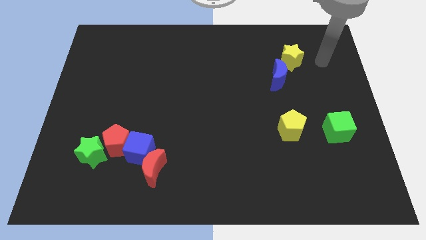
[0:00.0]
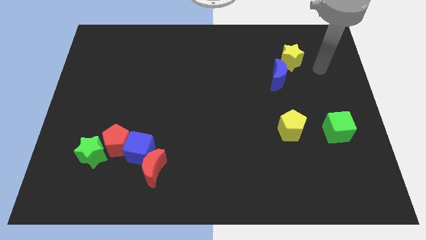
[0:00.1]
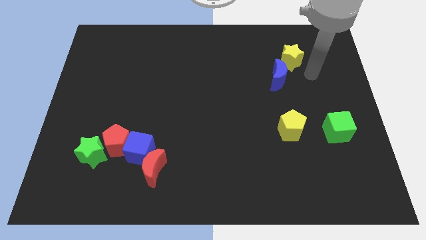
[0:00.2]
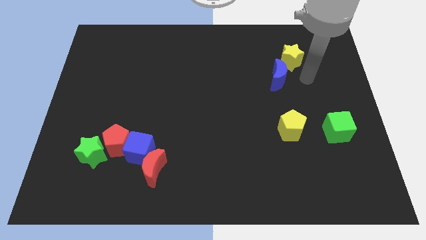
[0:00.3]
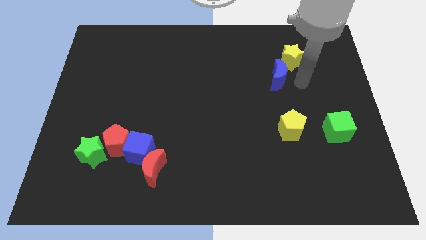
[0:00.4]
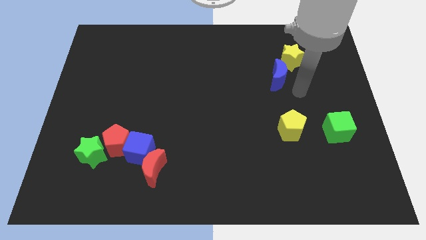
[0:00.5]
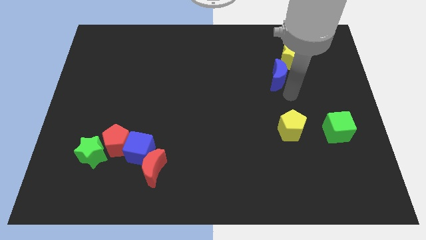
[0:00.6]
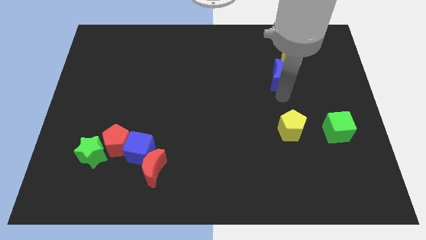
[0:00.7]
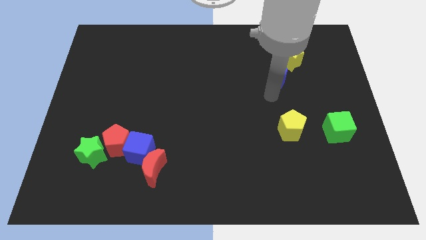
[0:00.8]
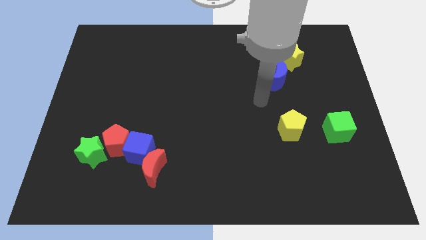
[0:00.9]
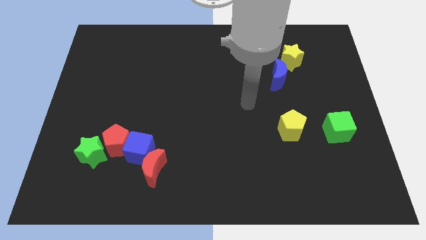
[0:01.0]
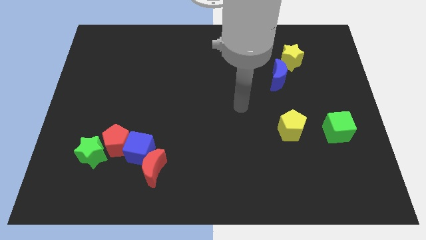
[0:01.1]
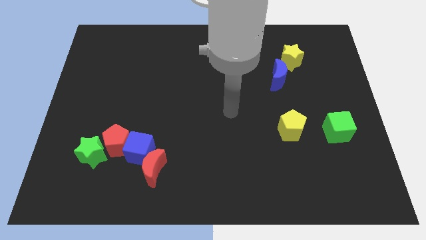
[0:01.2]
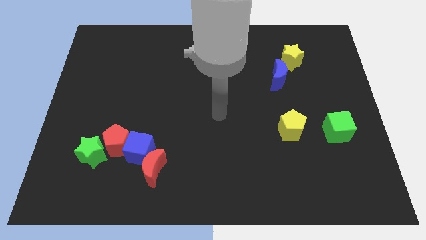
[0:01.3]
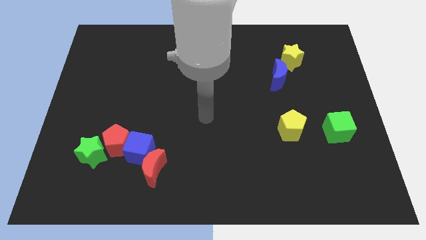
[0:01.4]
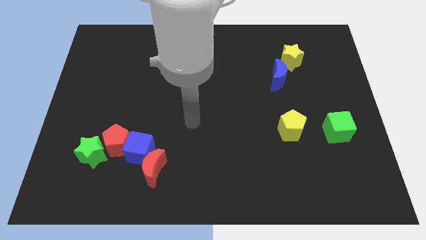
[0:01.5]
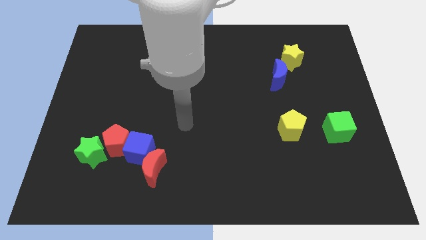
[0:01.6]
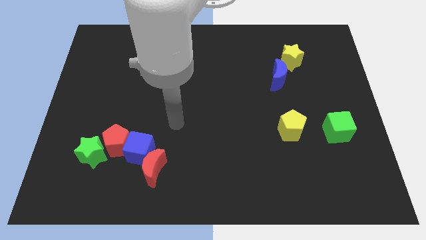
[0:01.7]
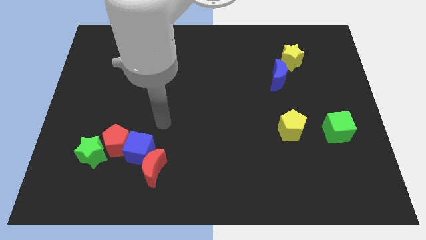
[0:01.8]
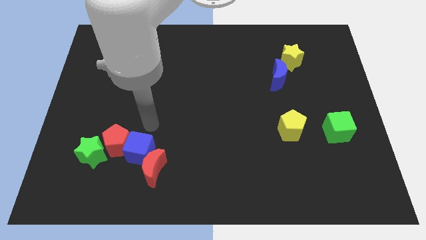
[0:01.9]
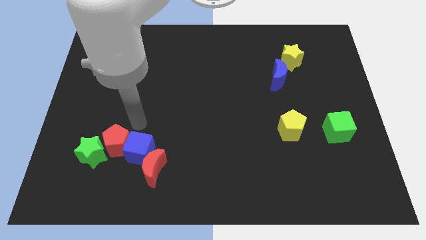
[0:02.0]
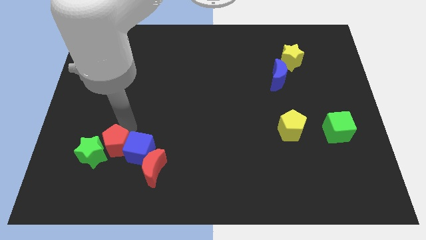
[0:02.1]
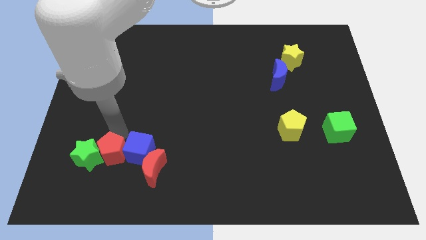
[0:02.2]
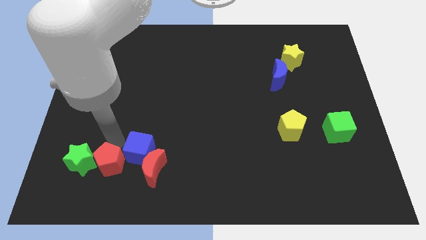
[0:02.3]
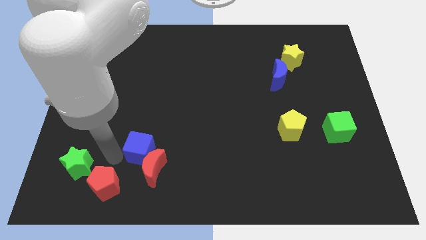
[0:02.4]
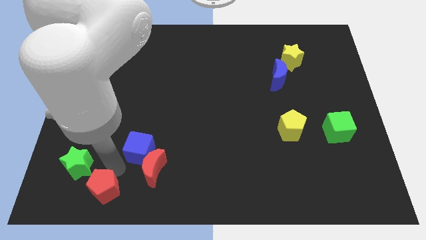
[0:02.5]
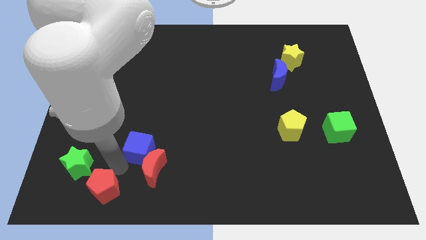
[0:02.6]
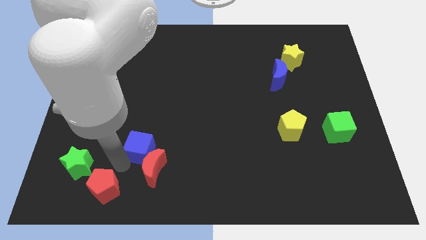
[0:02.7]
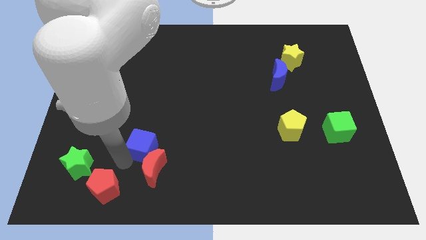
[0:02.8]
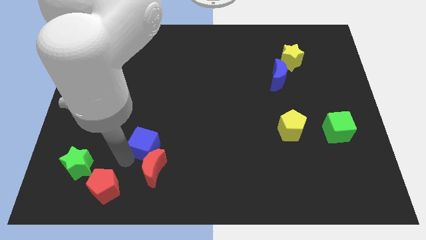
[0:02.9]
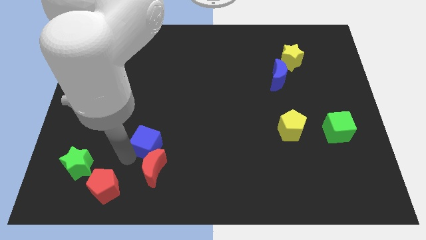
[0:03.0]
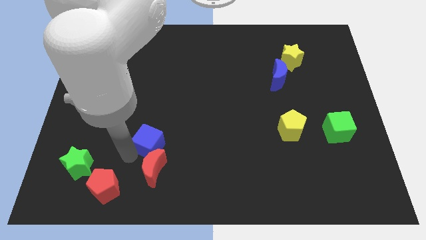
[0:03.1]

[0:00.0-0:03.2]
pull the blue cube apart from the red pentagon, red moon, and green star

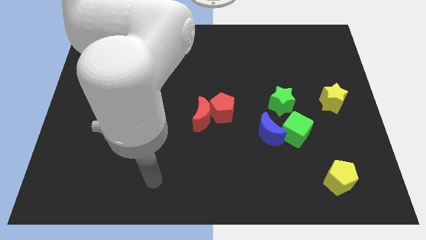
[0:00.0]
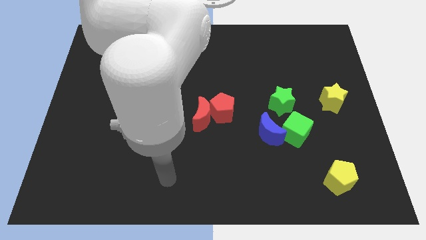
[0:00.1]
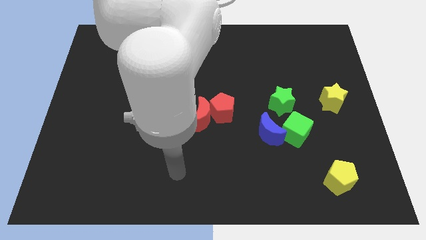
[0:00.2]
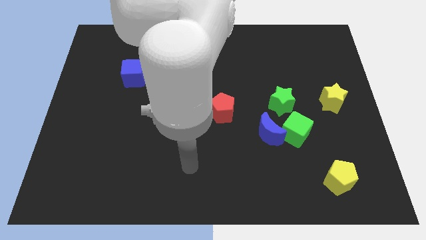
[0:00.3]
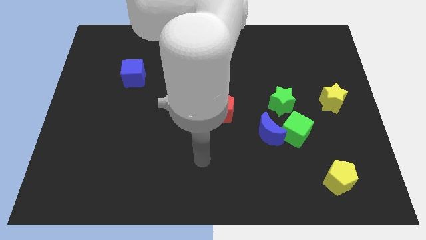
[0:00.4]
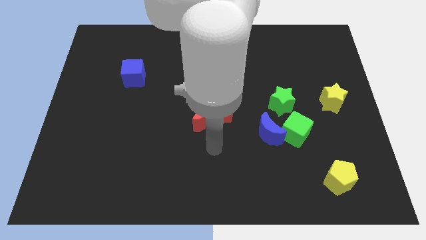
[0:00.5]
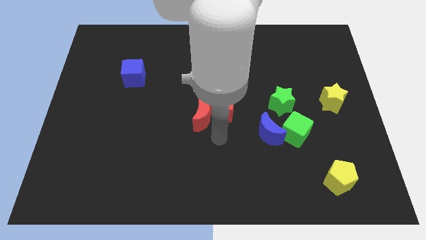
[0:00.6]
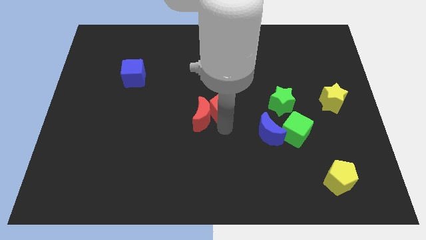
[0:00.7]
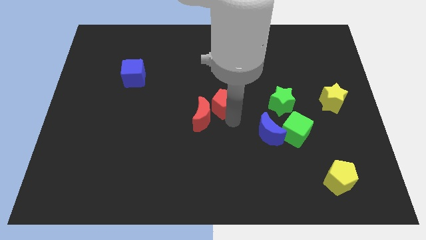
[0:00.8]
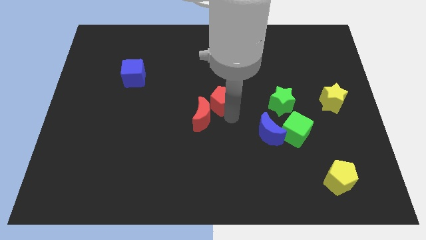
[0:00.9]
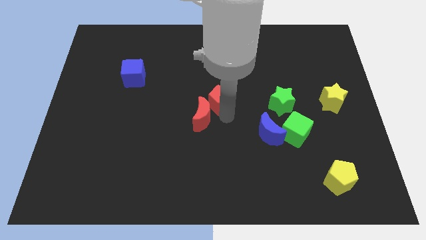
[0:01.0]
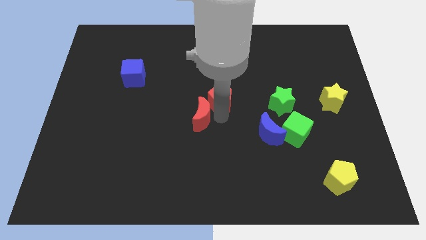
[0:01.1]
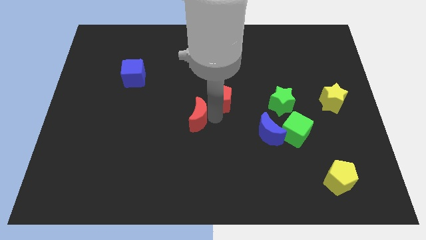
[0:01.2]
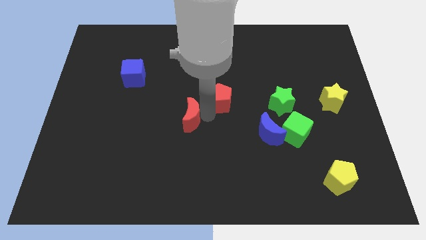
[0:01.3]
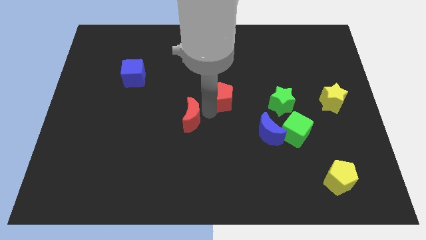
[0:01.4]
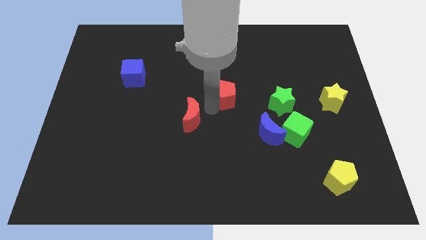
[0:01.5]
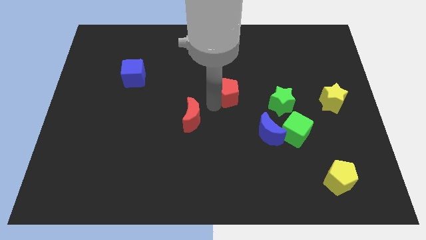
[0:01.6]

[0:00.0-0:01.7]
separate the red moon from the red pentagon

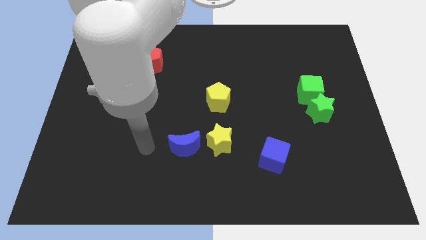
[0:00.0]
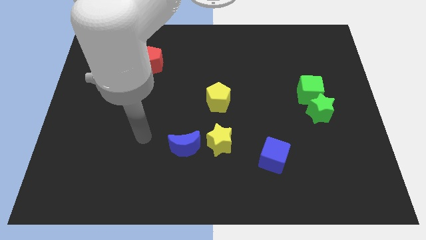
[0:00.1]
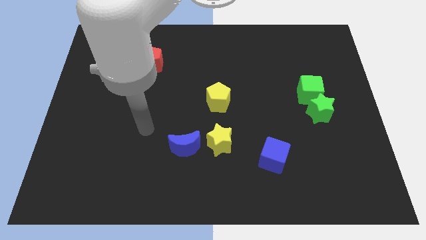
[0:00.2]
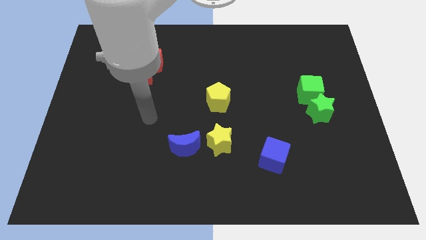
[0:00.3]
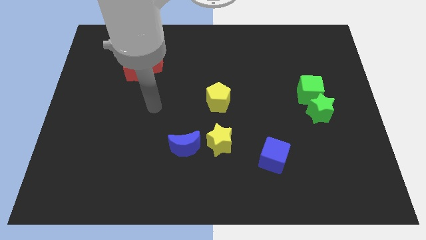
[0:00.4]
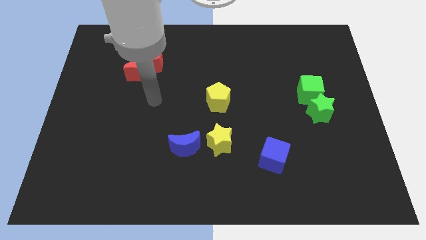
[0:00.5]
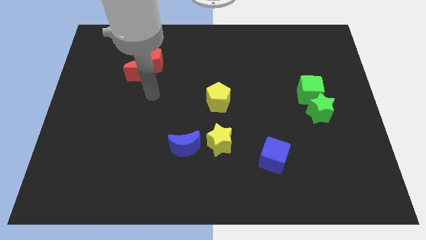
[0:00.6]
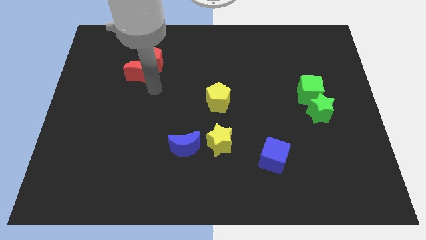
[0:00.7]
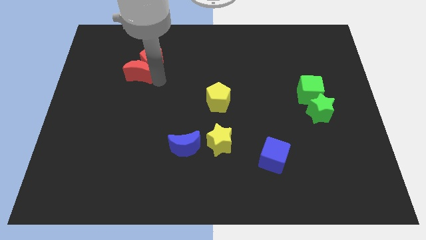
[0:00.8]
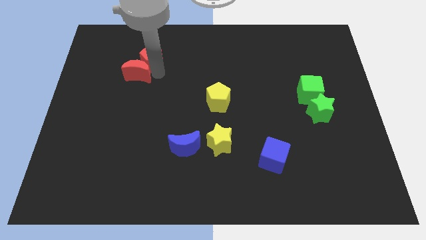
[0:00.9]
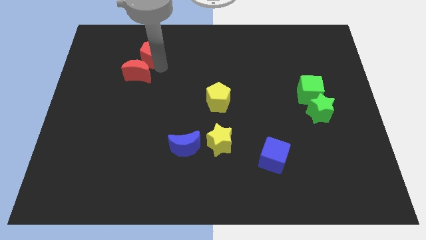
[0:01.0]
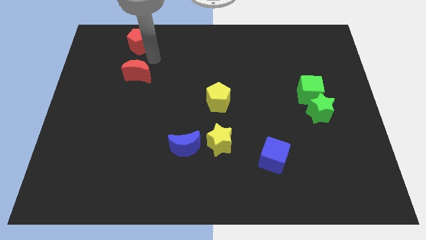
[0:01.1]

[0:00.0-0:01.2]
pull the red moon apart from the red pentagon

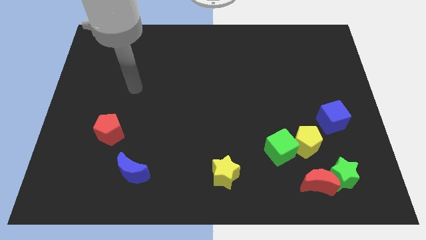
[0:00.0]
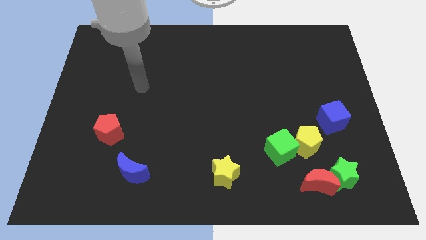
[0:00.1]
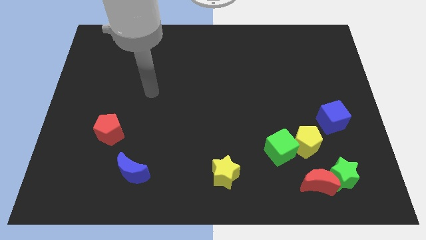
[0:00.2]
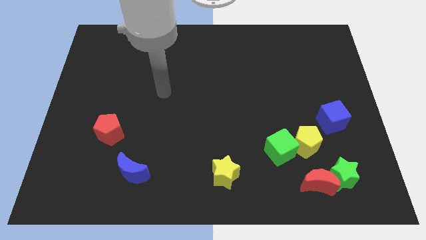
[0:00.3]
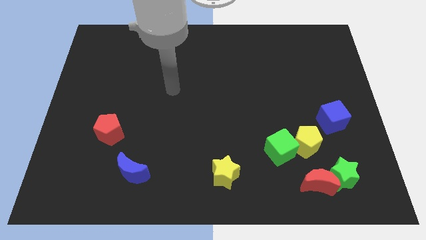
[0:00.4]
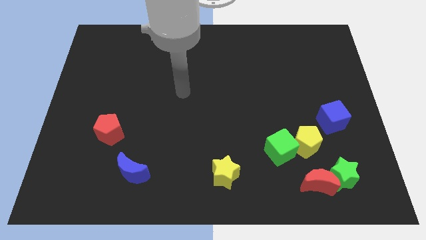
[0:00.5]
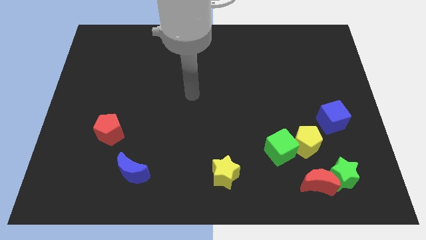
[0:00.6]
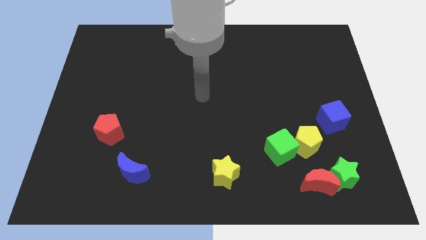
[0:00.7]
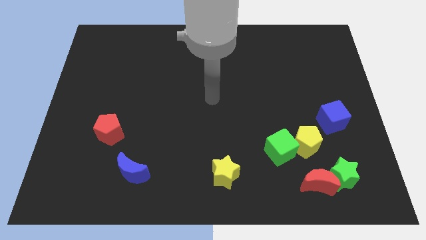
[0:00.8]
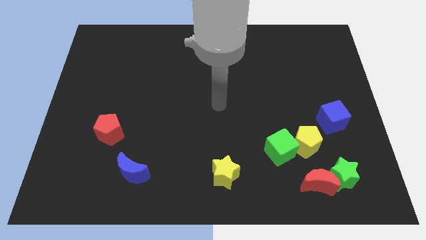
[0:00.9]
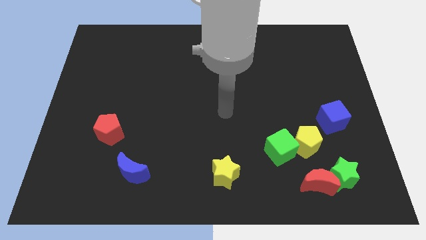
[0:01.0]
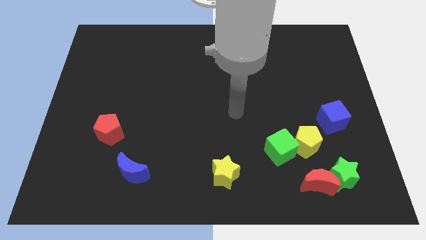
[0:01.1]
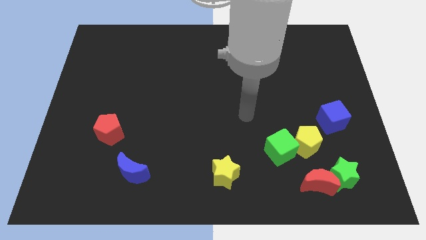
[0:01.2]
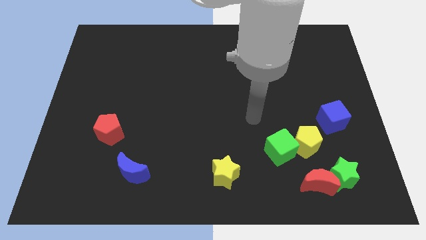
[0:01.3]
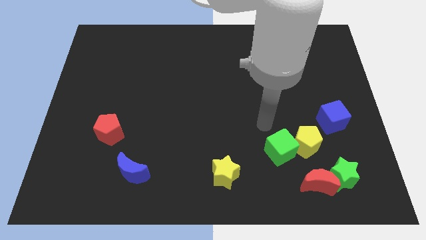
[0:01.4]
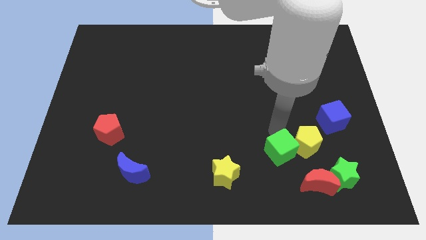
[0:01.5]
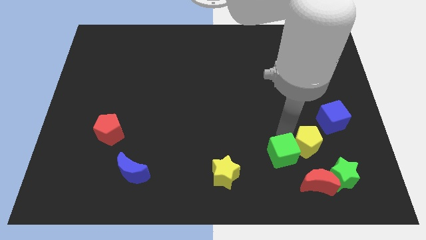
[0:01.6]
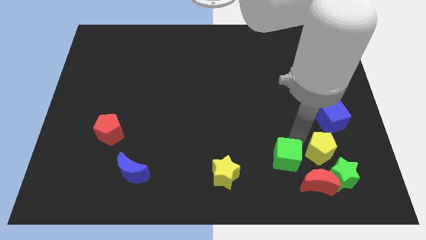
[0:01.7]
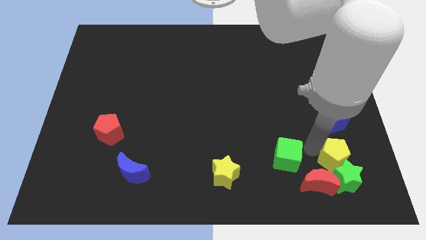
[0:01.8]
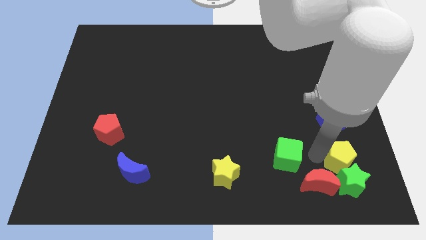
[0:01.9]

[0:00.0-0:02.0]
move the green cube away from the yellow pentagon

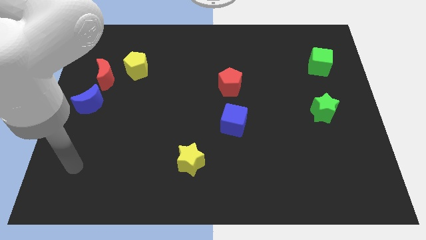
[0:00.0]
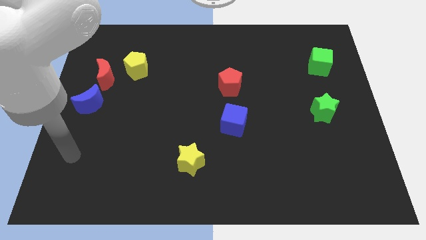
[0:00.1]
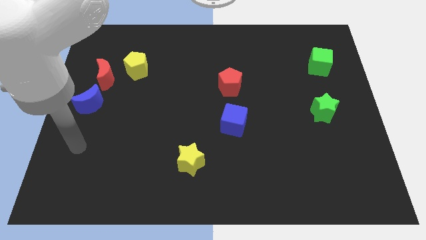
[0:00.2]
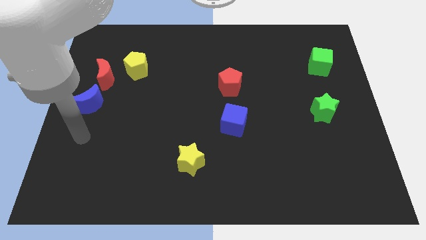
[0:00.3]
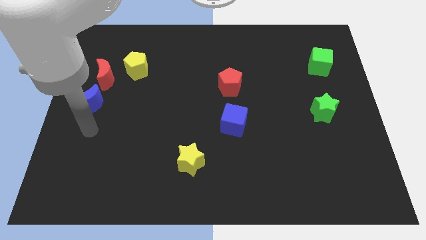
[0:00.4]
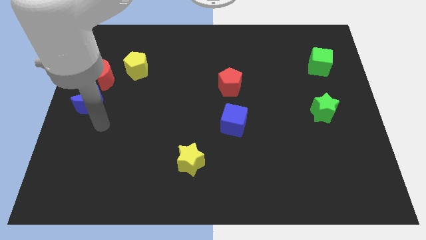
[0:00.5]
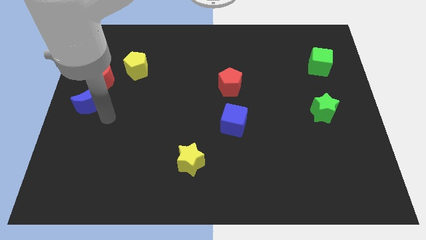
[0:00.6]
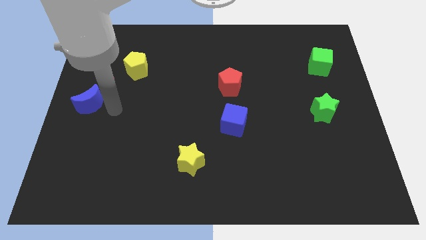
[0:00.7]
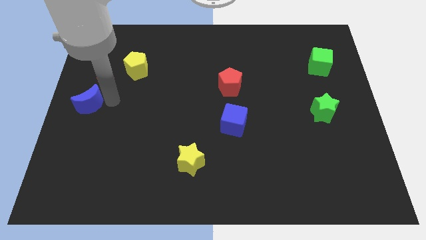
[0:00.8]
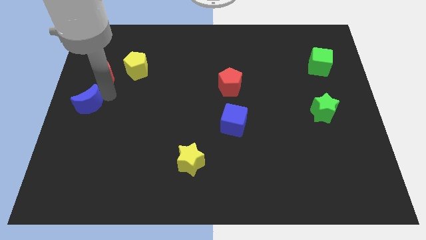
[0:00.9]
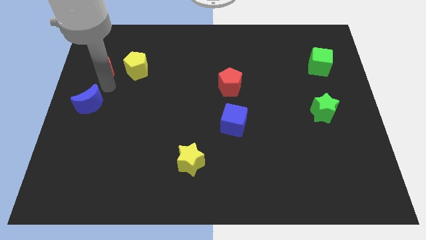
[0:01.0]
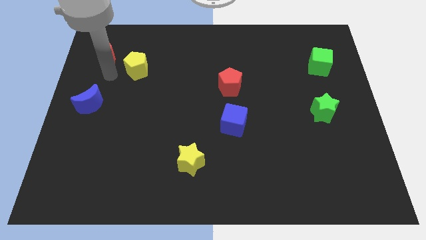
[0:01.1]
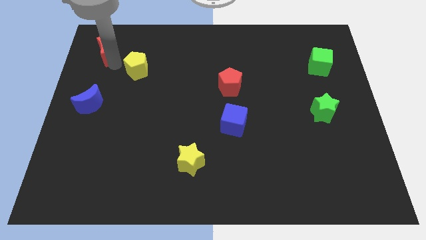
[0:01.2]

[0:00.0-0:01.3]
move the yellow pentagon away from the red moon
